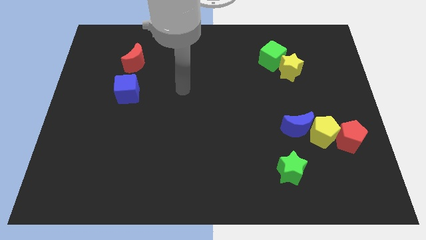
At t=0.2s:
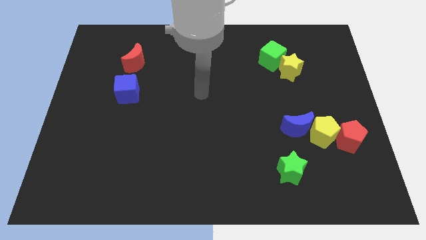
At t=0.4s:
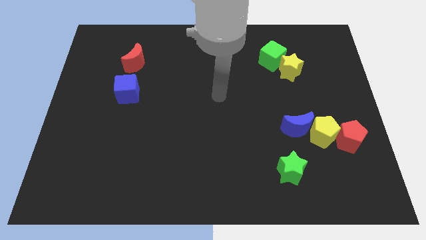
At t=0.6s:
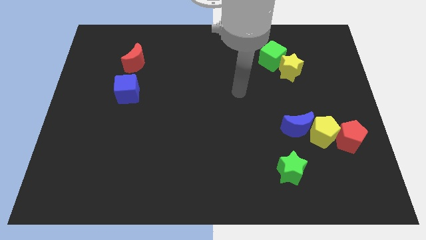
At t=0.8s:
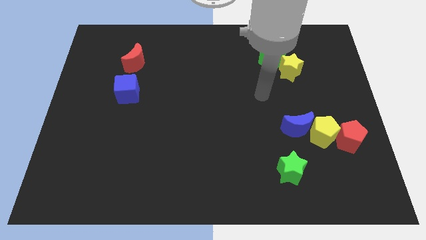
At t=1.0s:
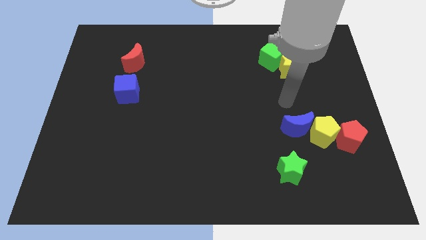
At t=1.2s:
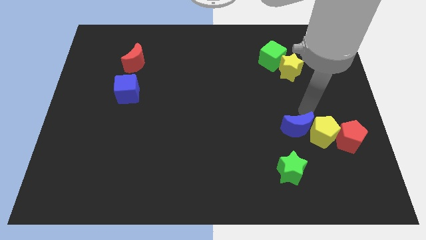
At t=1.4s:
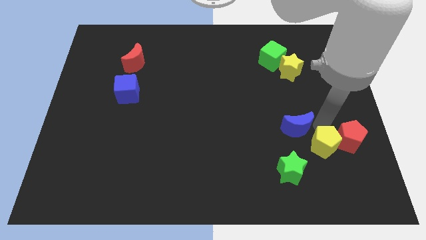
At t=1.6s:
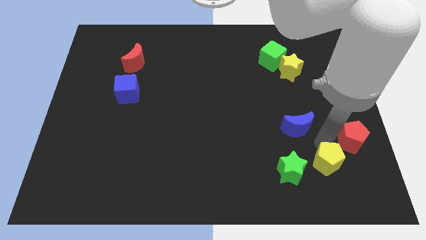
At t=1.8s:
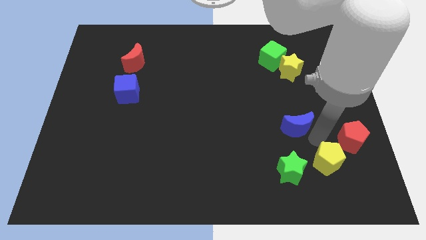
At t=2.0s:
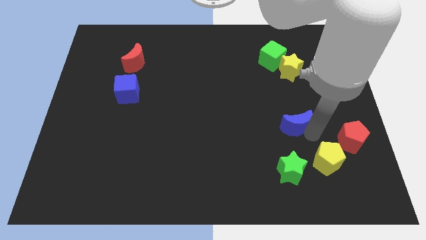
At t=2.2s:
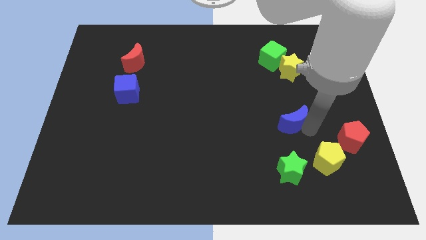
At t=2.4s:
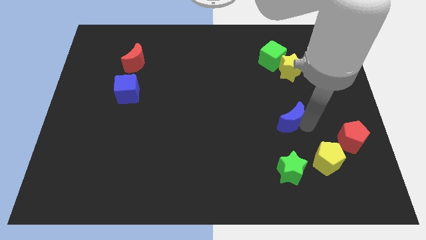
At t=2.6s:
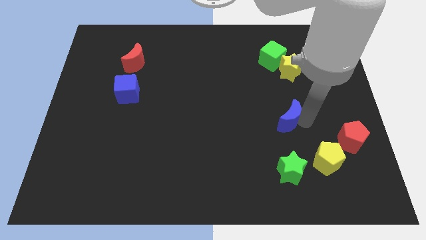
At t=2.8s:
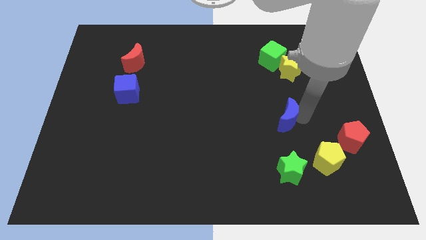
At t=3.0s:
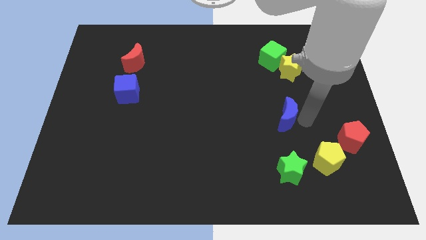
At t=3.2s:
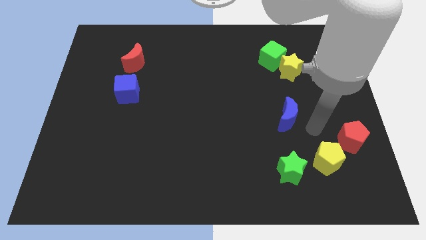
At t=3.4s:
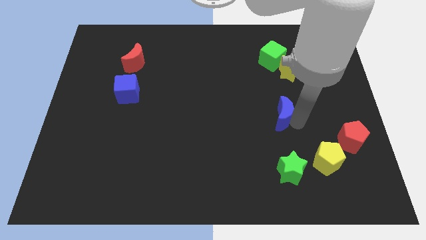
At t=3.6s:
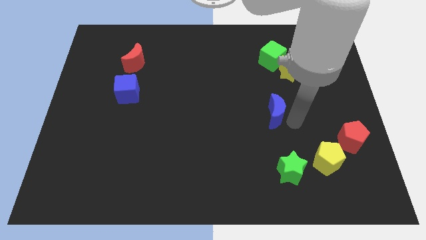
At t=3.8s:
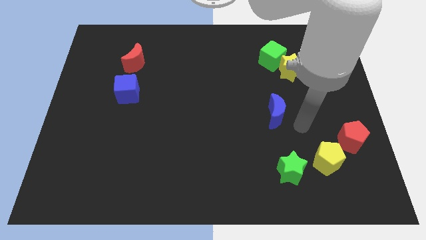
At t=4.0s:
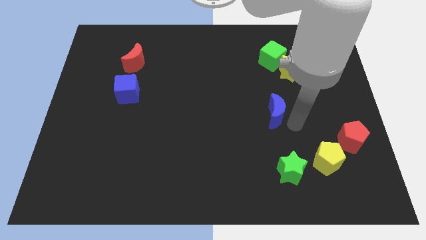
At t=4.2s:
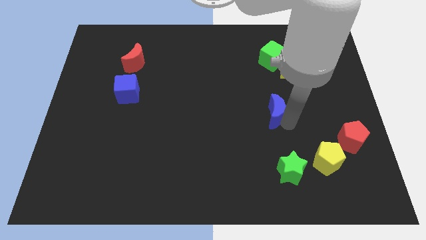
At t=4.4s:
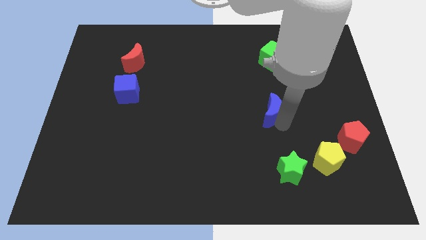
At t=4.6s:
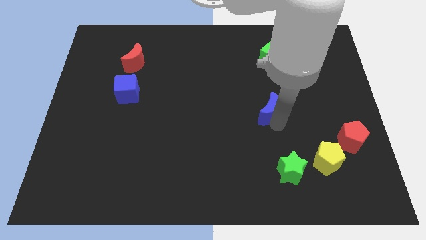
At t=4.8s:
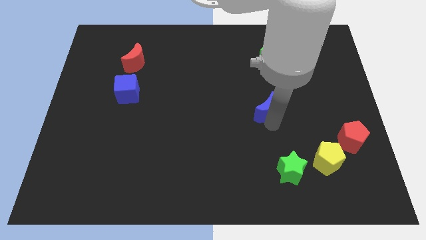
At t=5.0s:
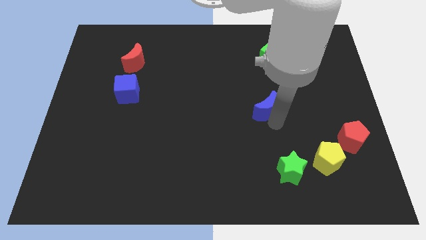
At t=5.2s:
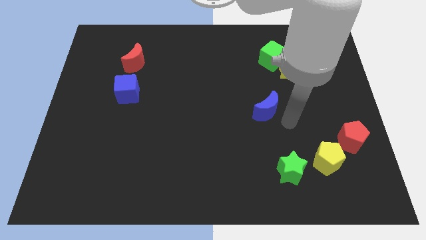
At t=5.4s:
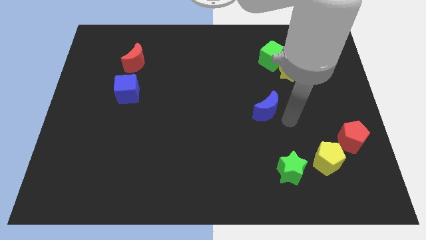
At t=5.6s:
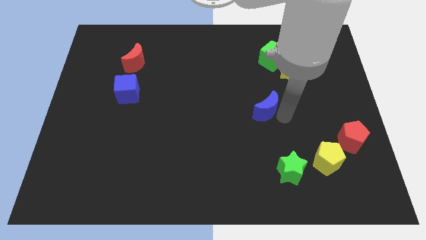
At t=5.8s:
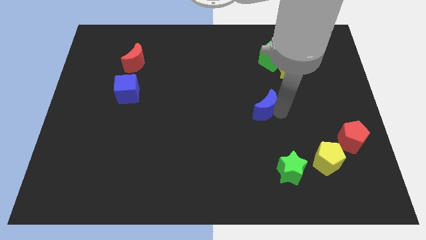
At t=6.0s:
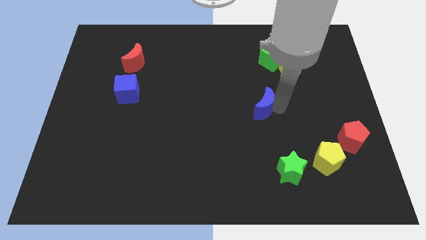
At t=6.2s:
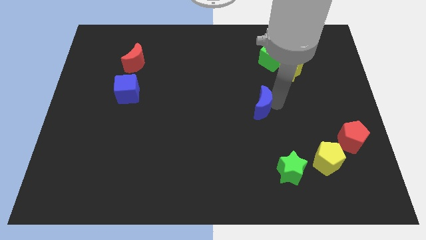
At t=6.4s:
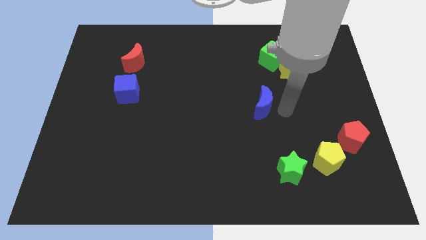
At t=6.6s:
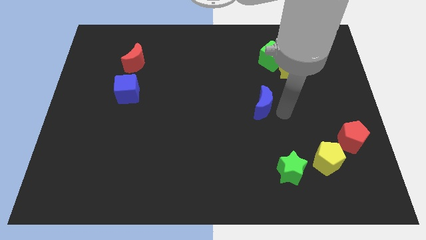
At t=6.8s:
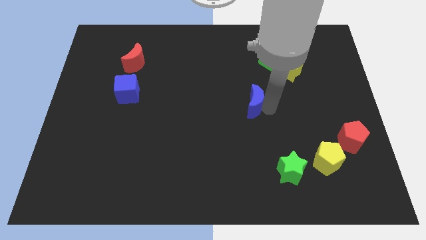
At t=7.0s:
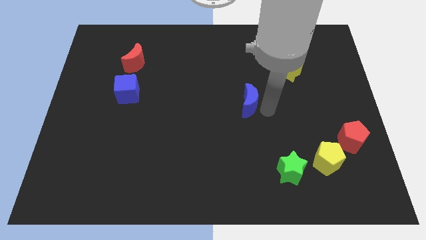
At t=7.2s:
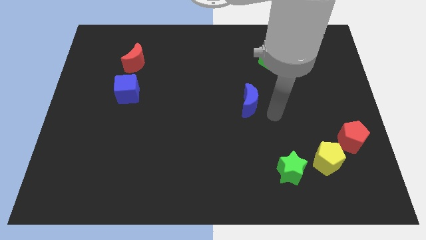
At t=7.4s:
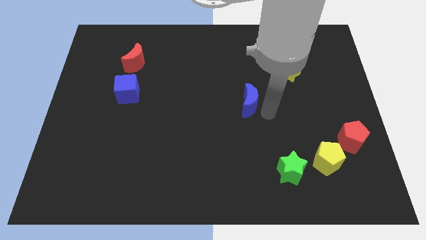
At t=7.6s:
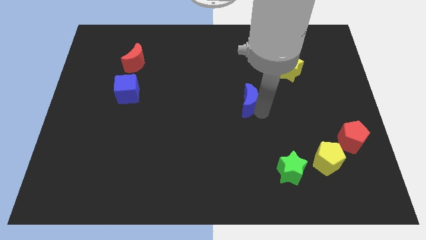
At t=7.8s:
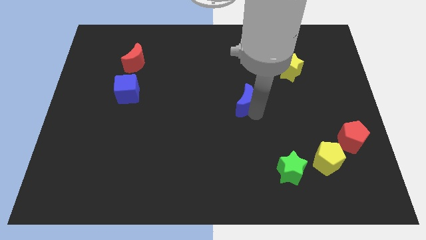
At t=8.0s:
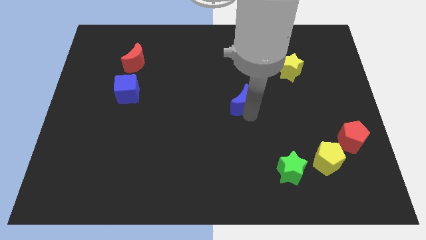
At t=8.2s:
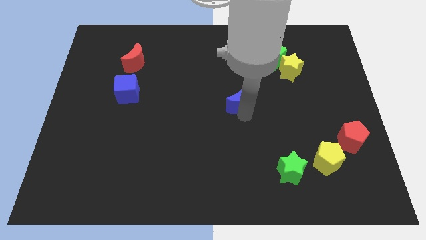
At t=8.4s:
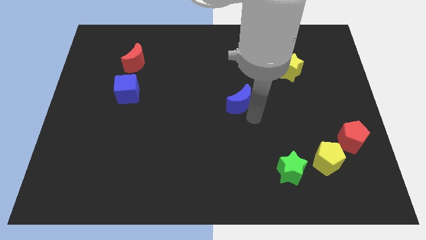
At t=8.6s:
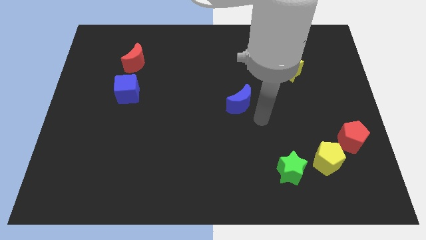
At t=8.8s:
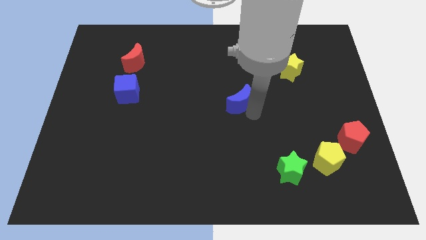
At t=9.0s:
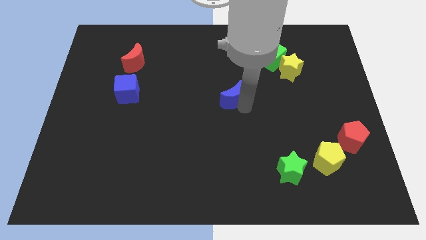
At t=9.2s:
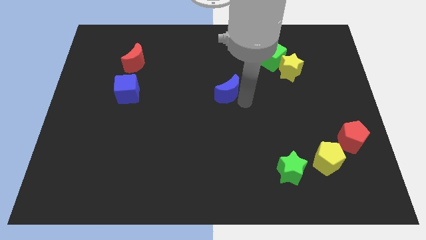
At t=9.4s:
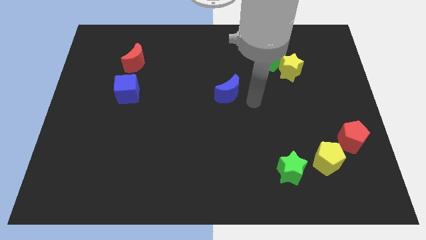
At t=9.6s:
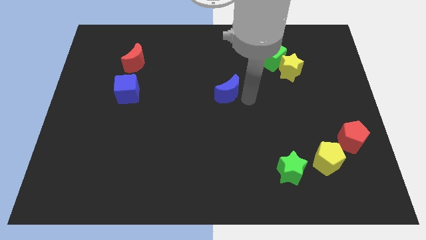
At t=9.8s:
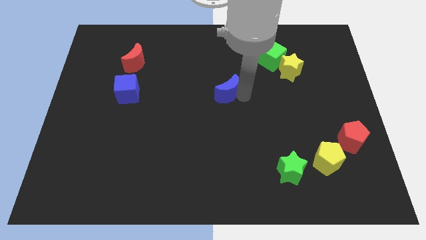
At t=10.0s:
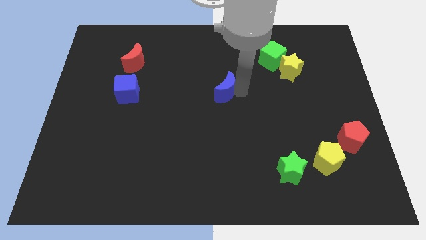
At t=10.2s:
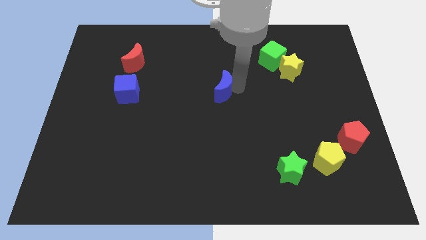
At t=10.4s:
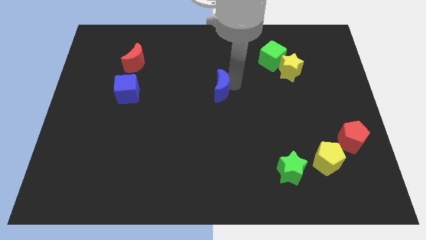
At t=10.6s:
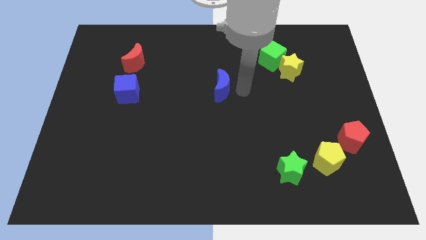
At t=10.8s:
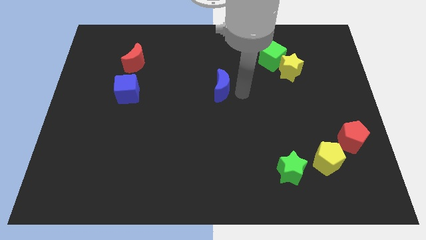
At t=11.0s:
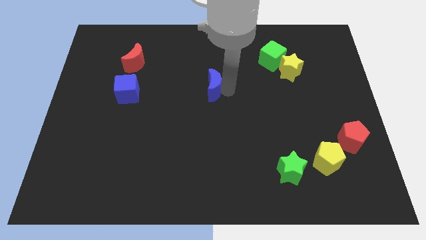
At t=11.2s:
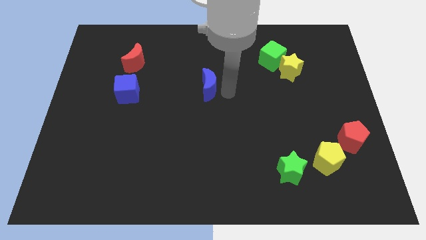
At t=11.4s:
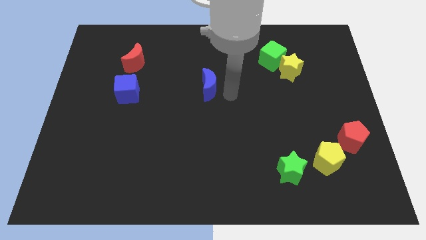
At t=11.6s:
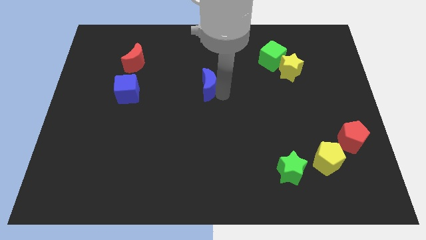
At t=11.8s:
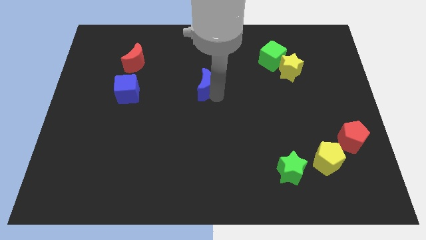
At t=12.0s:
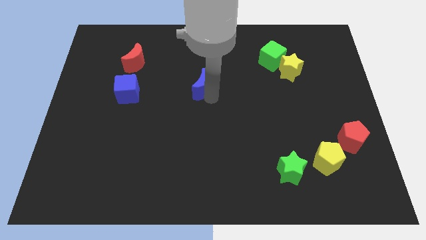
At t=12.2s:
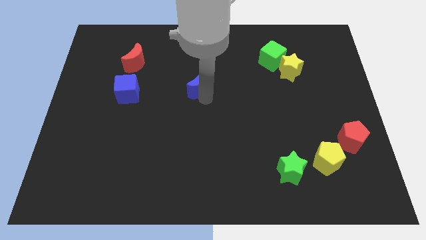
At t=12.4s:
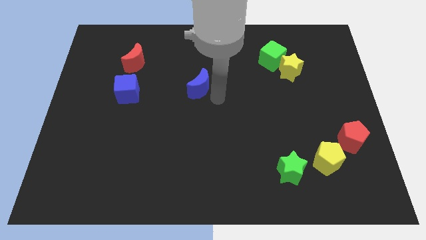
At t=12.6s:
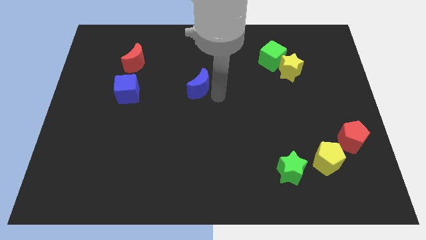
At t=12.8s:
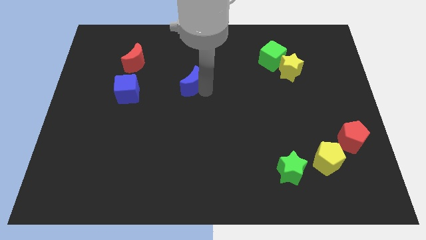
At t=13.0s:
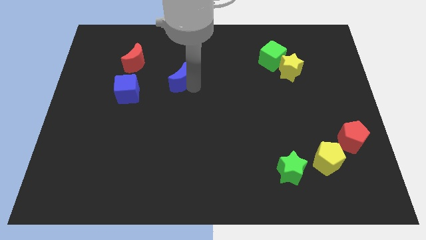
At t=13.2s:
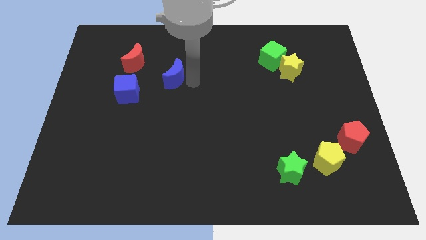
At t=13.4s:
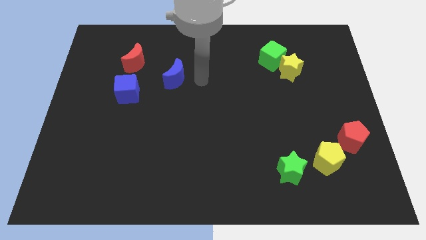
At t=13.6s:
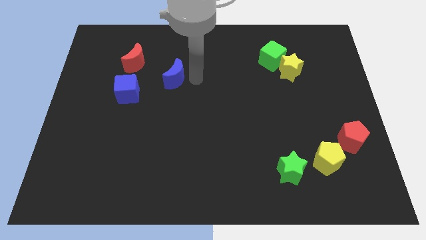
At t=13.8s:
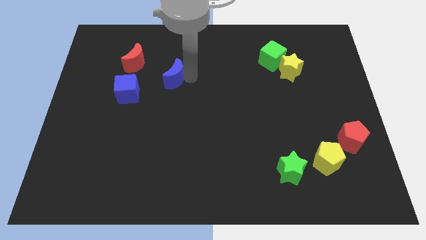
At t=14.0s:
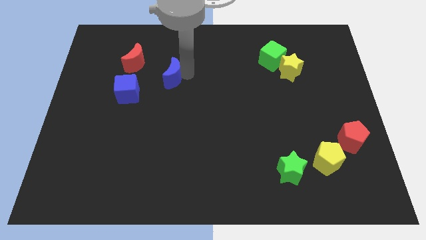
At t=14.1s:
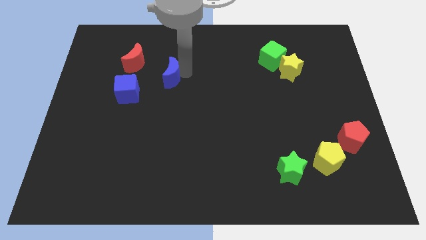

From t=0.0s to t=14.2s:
push the blue moon to the top right of the blue cube

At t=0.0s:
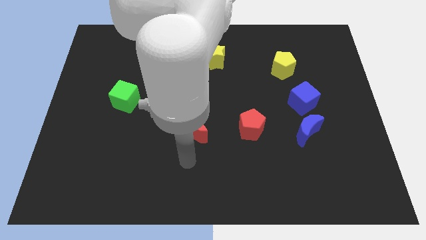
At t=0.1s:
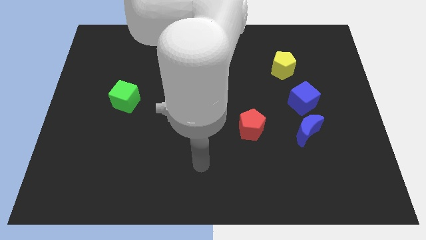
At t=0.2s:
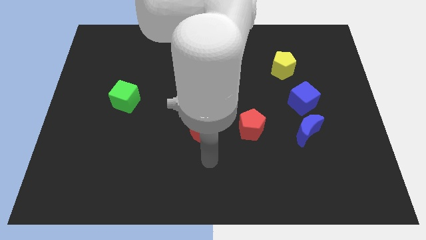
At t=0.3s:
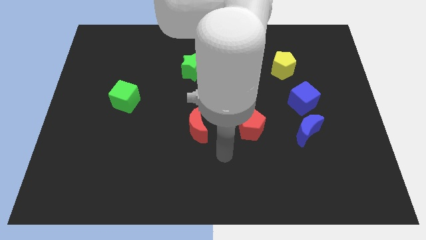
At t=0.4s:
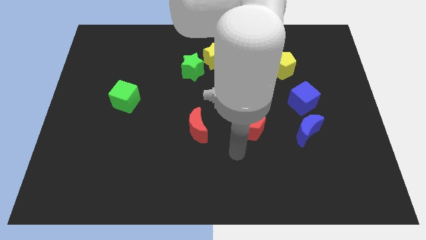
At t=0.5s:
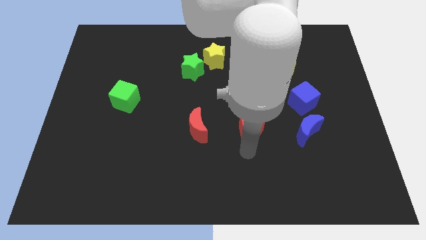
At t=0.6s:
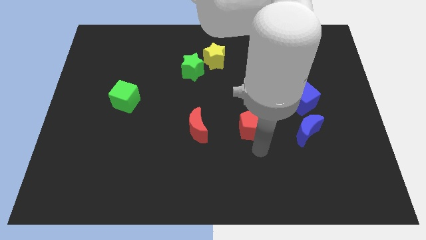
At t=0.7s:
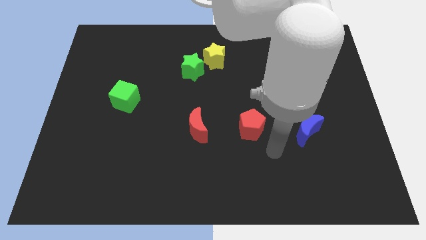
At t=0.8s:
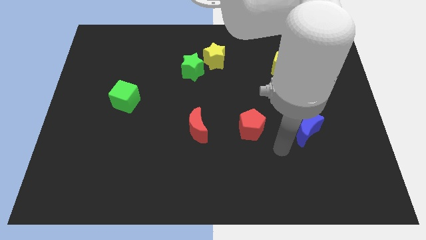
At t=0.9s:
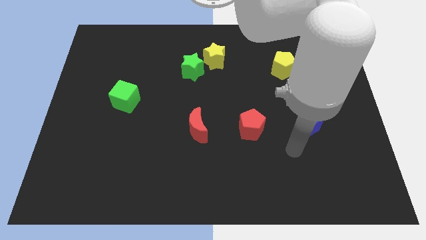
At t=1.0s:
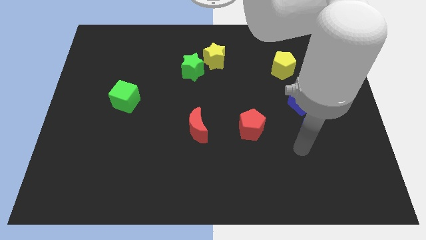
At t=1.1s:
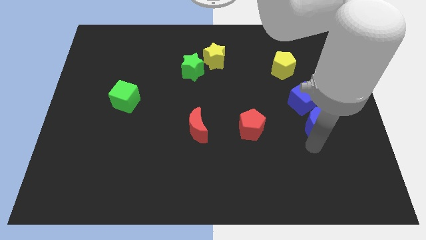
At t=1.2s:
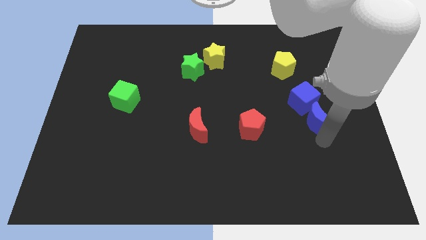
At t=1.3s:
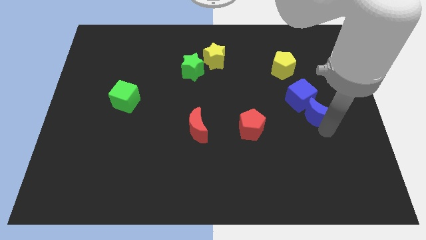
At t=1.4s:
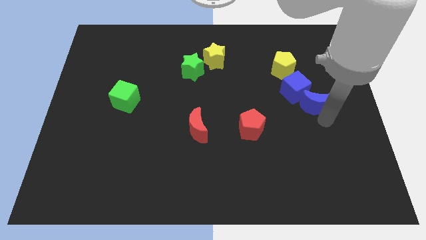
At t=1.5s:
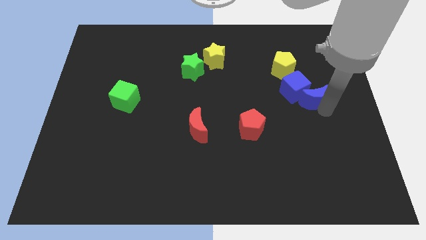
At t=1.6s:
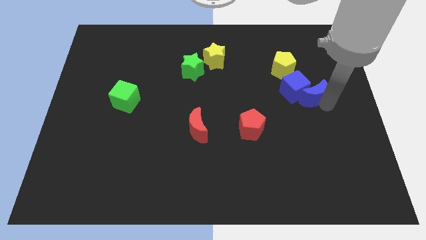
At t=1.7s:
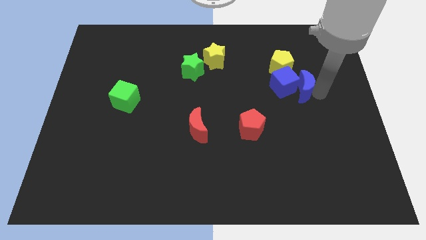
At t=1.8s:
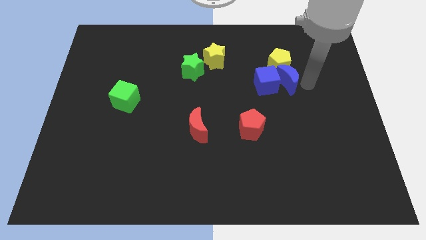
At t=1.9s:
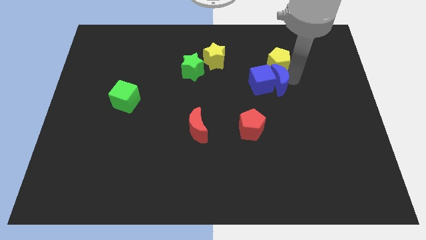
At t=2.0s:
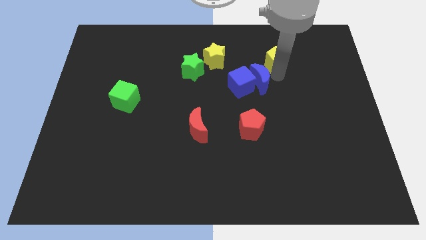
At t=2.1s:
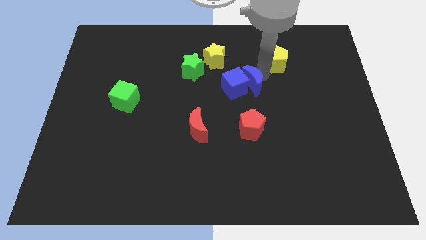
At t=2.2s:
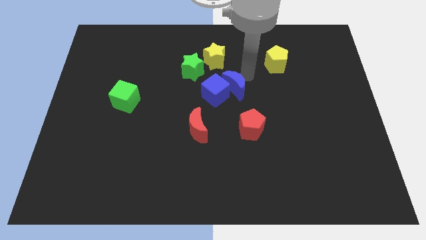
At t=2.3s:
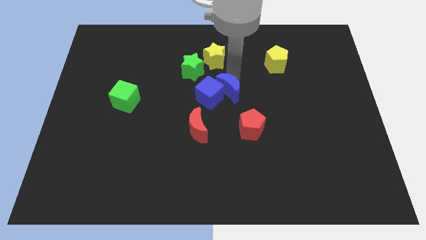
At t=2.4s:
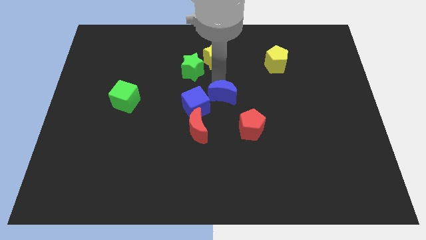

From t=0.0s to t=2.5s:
move the blue cube to the top left of the red moon
